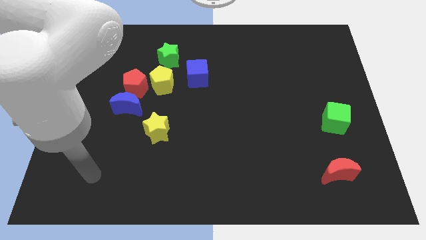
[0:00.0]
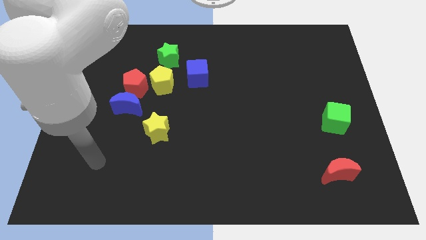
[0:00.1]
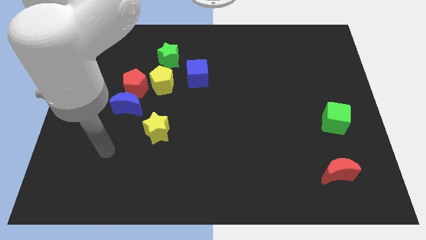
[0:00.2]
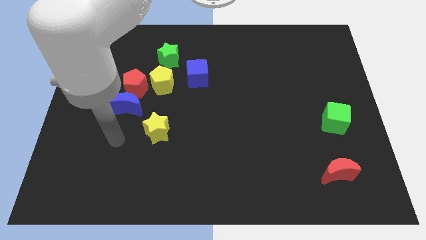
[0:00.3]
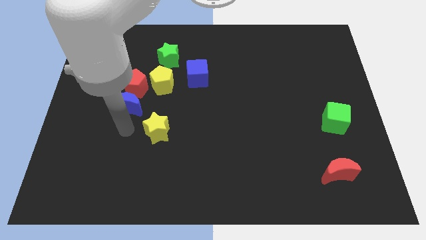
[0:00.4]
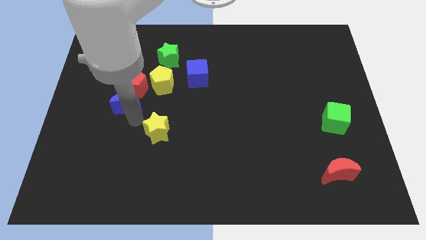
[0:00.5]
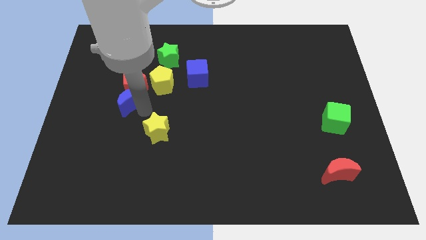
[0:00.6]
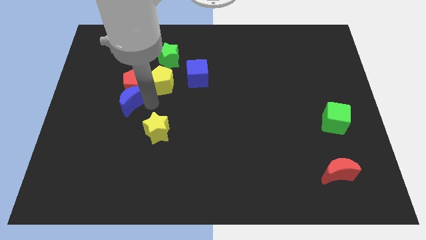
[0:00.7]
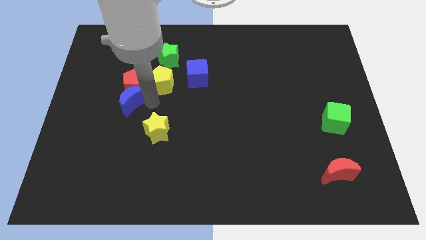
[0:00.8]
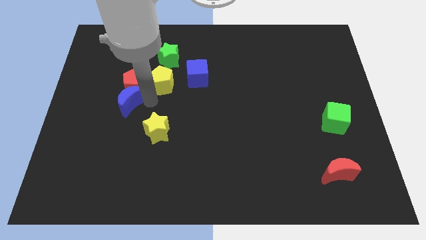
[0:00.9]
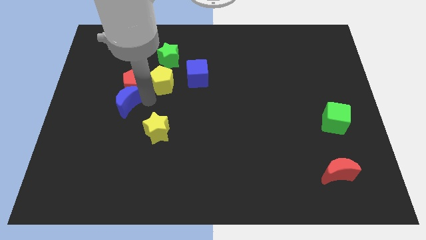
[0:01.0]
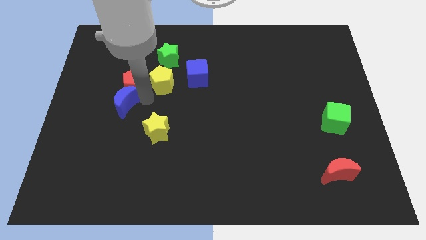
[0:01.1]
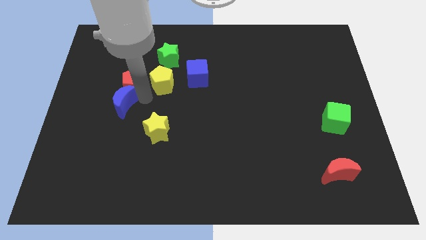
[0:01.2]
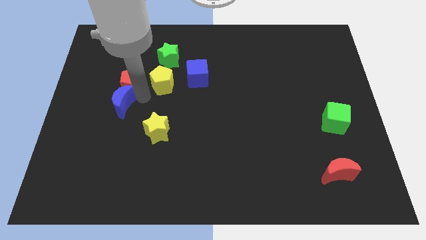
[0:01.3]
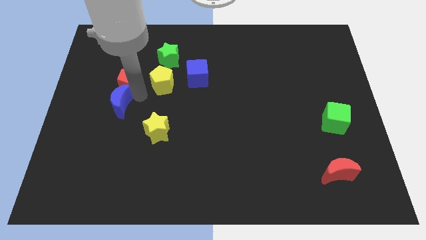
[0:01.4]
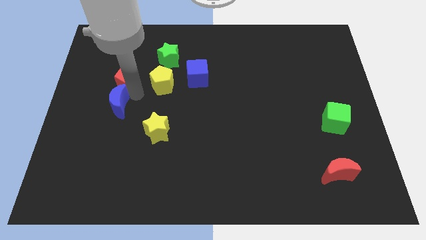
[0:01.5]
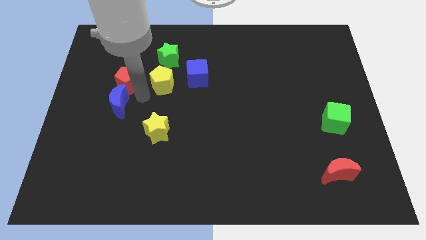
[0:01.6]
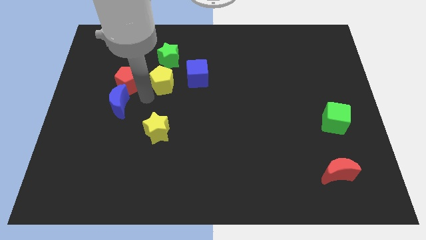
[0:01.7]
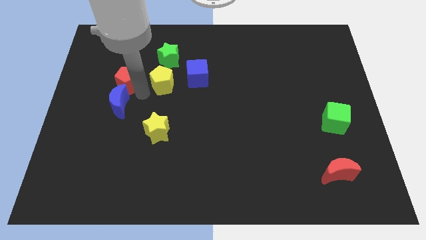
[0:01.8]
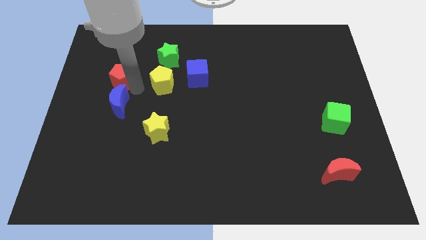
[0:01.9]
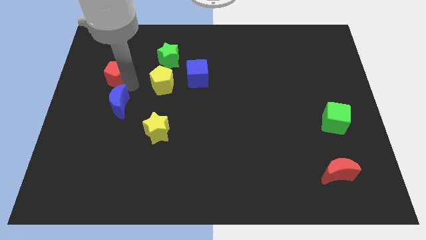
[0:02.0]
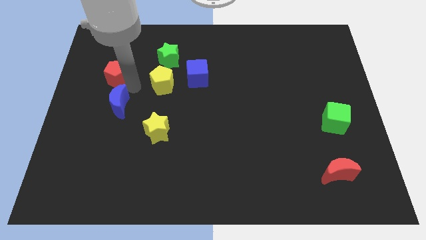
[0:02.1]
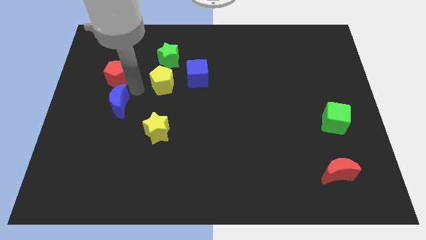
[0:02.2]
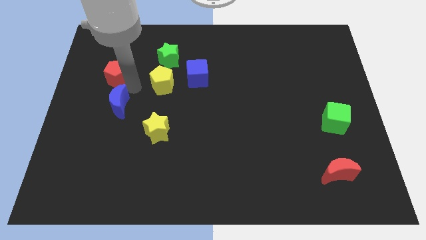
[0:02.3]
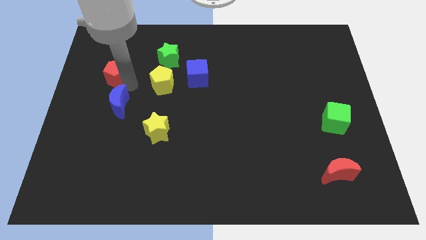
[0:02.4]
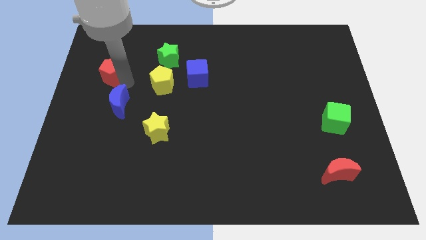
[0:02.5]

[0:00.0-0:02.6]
pull the red pentagon apart from the blue moon and yellow pentagon

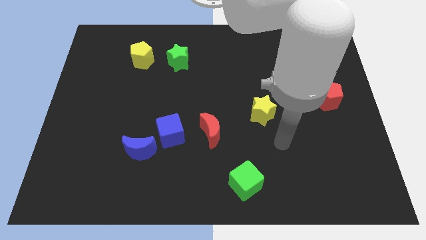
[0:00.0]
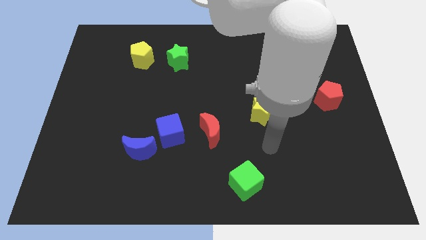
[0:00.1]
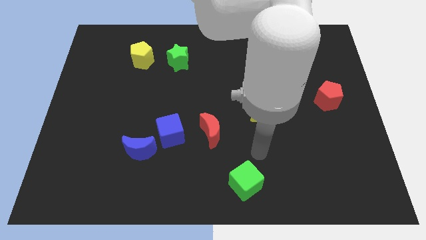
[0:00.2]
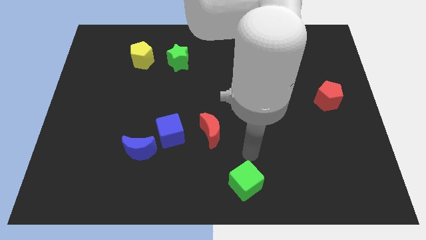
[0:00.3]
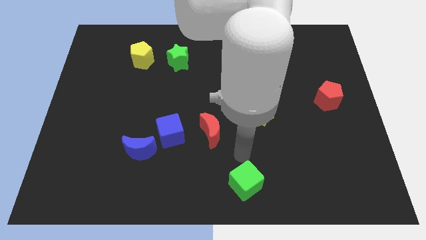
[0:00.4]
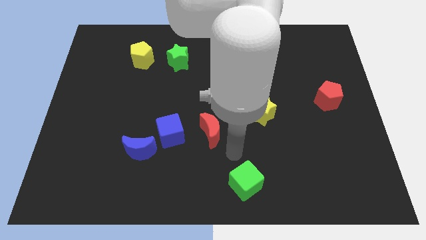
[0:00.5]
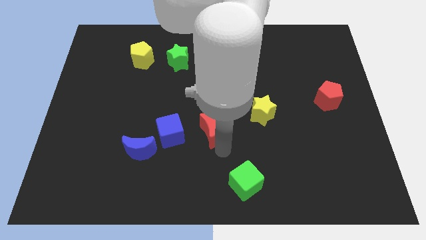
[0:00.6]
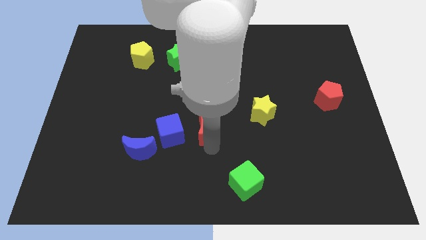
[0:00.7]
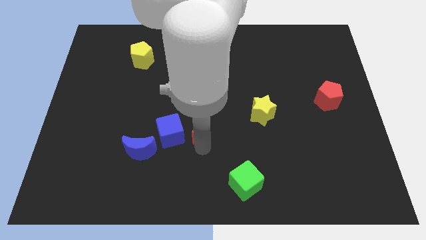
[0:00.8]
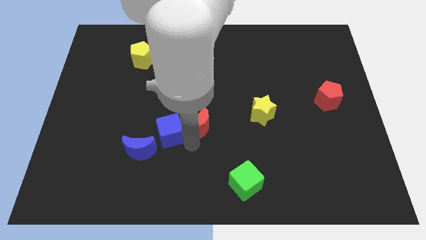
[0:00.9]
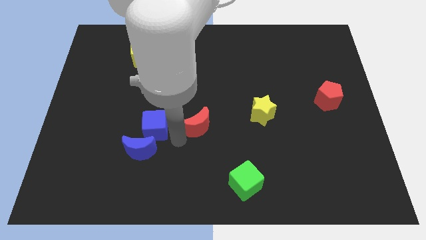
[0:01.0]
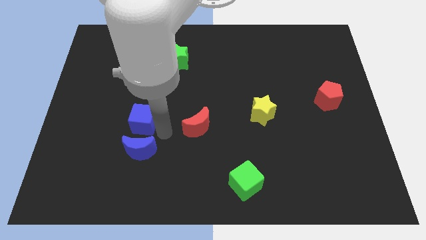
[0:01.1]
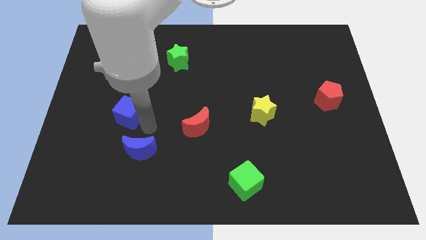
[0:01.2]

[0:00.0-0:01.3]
move the blue moon away from the blue cube

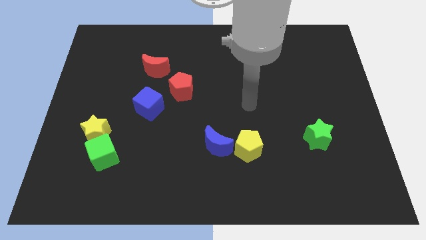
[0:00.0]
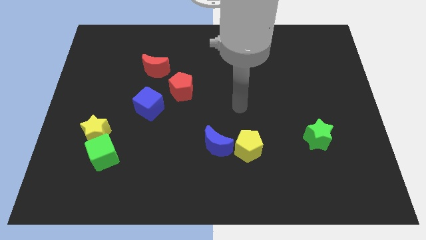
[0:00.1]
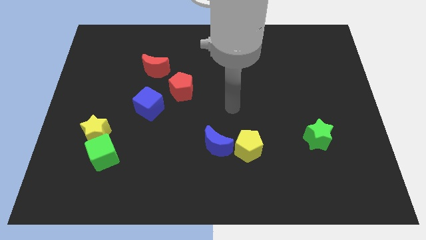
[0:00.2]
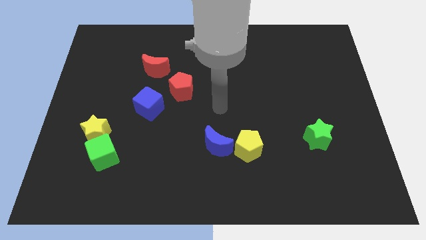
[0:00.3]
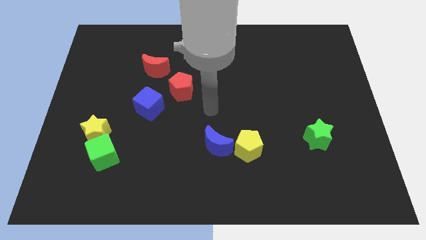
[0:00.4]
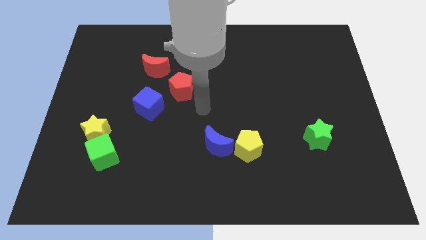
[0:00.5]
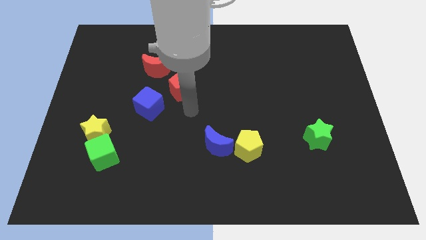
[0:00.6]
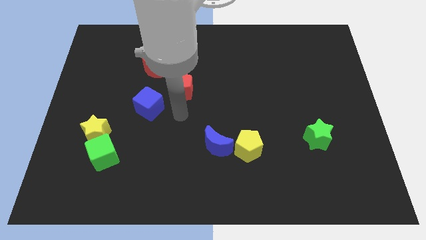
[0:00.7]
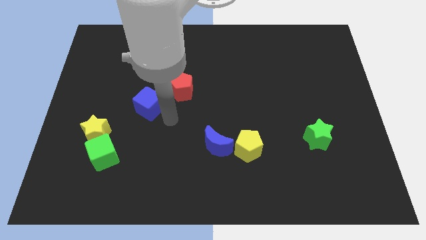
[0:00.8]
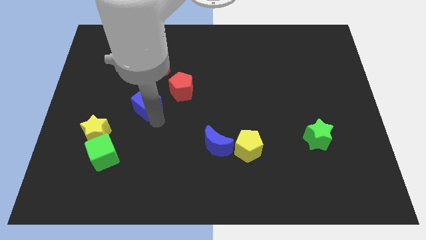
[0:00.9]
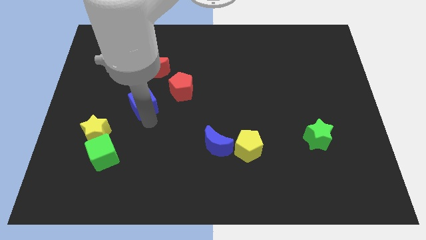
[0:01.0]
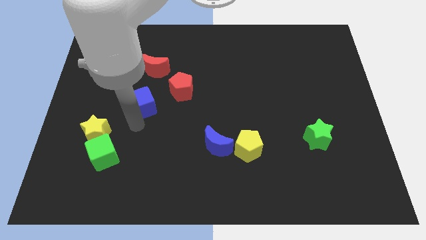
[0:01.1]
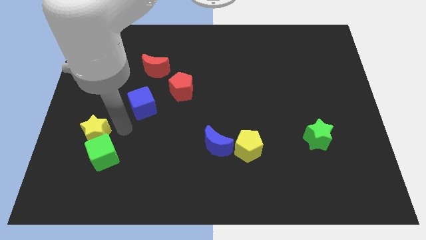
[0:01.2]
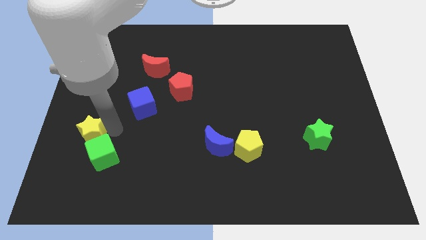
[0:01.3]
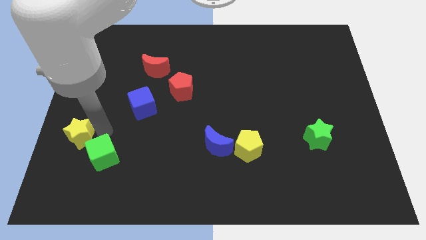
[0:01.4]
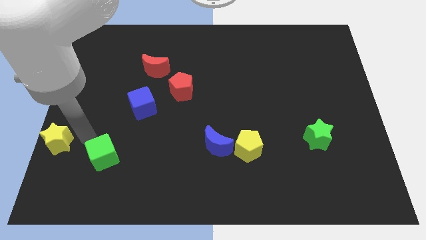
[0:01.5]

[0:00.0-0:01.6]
separate the green cube from the yellow star

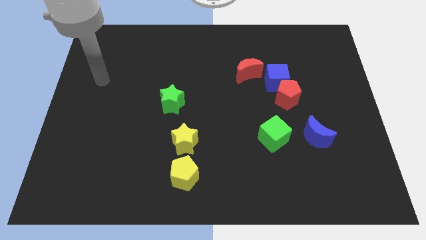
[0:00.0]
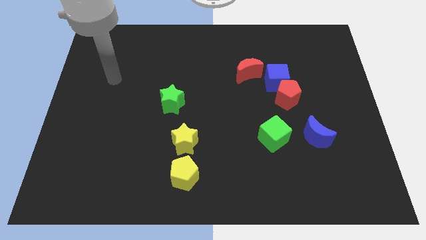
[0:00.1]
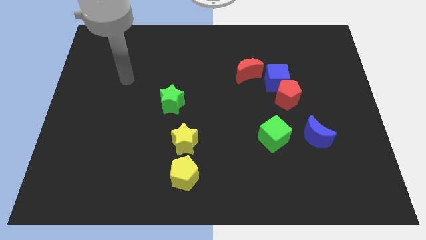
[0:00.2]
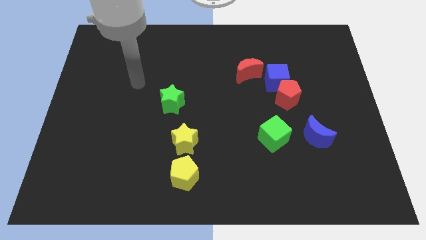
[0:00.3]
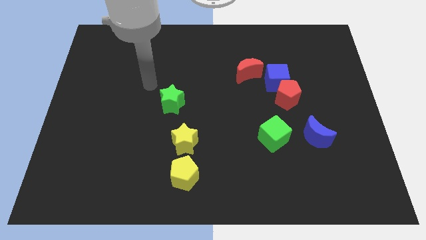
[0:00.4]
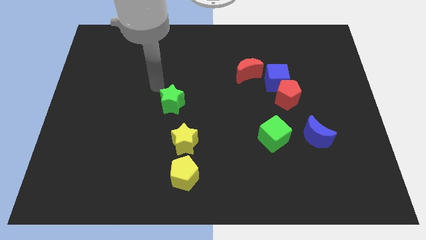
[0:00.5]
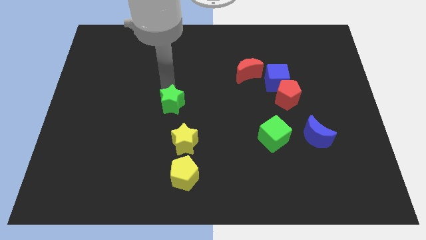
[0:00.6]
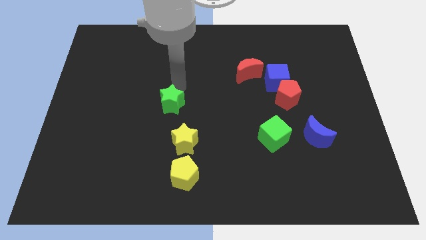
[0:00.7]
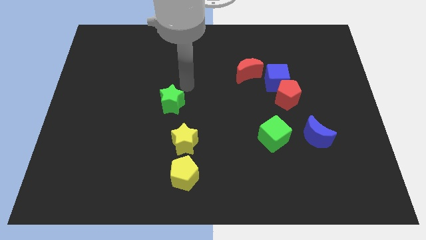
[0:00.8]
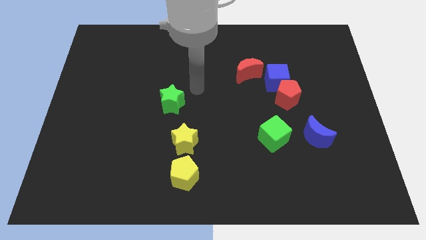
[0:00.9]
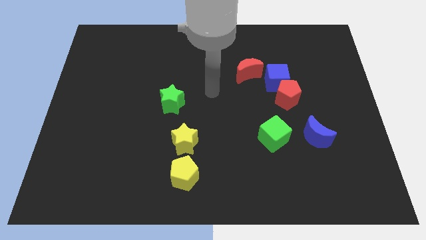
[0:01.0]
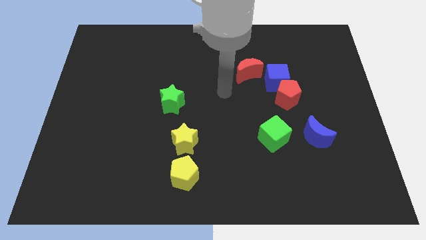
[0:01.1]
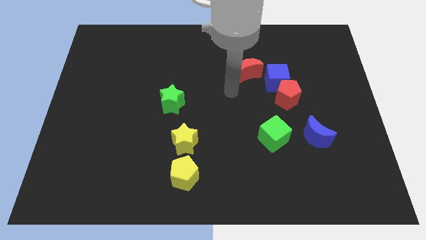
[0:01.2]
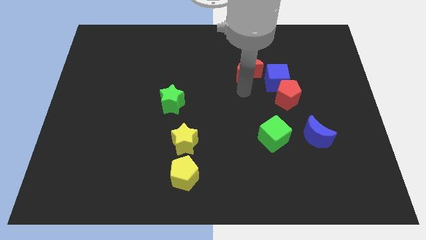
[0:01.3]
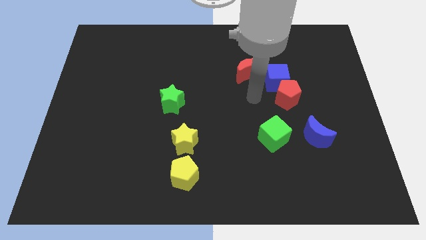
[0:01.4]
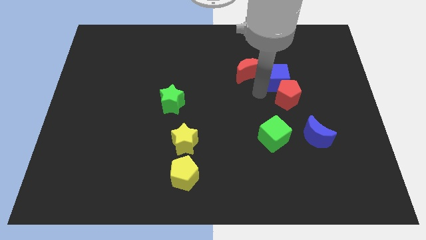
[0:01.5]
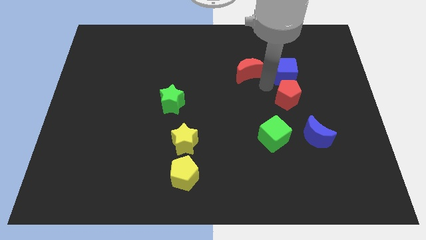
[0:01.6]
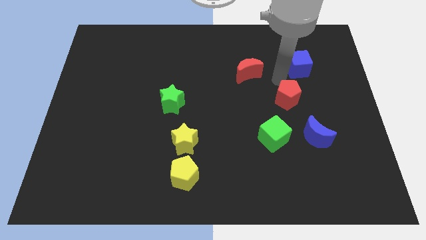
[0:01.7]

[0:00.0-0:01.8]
pull the red pentagon apart from the blue cube

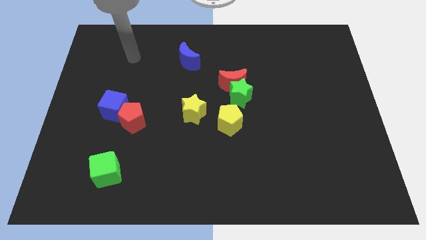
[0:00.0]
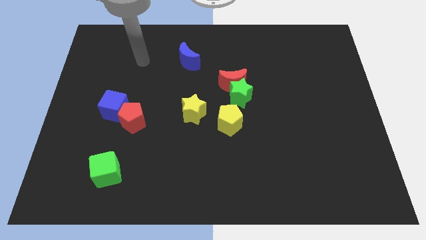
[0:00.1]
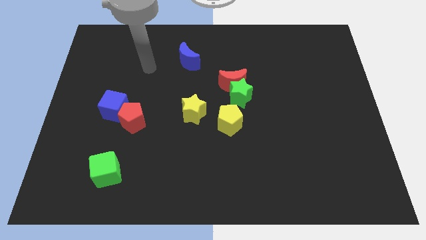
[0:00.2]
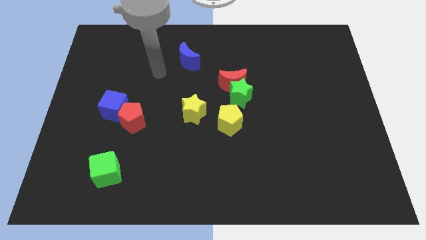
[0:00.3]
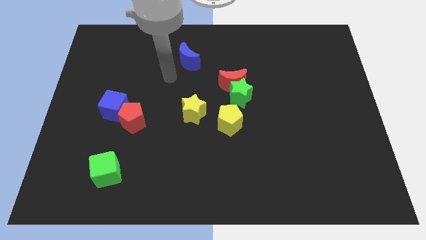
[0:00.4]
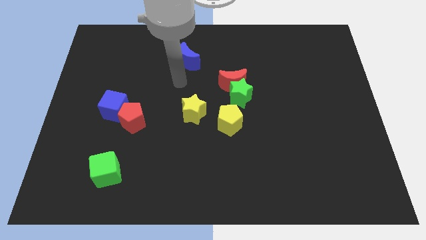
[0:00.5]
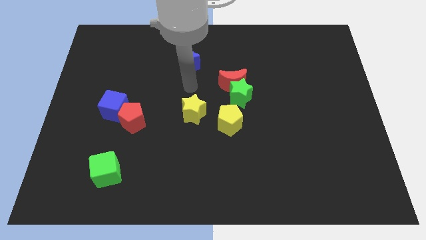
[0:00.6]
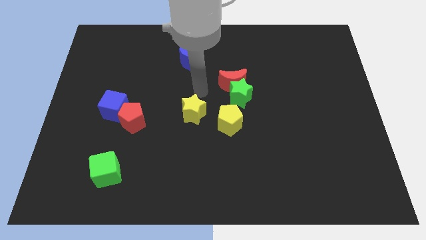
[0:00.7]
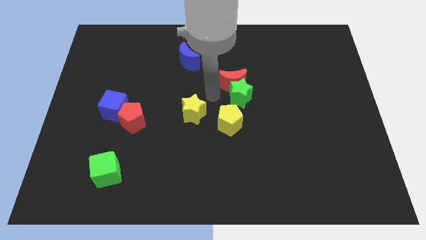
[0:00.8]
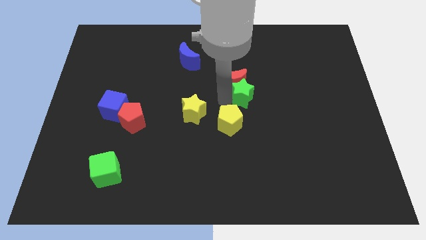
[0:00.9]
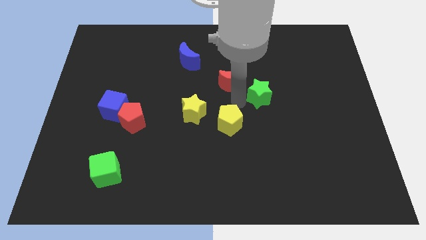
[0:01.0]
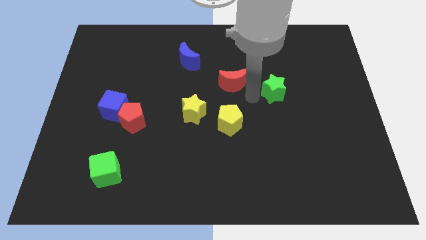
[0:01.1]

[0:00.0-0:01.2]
separate the red moon from the green star

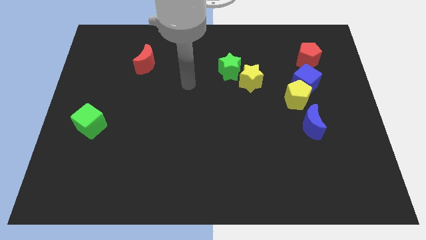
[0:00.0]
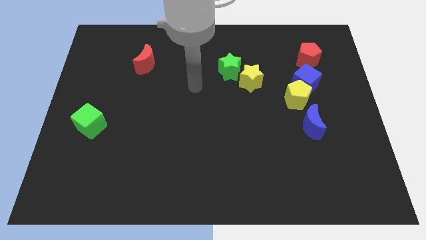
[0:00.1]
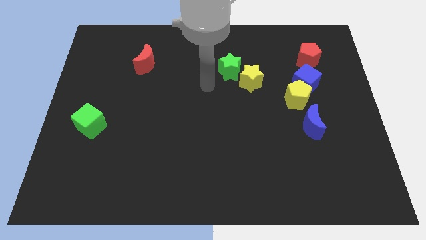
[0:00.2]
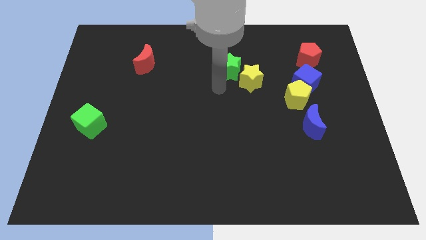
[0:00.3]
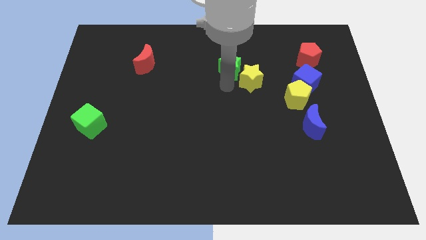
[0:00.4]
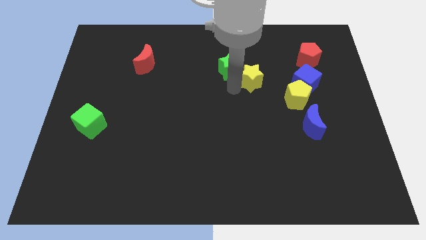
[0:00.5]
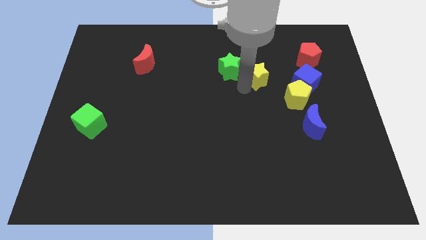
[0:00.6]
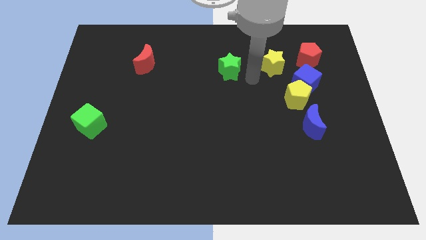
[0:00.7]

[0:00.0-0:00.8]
pull the green star apart from the yellow star
